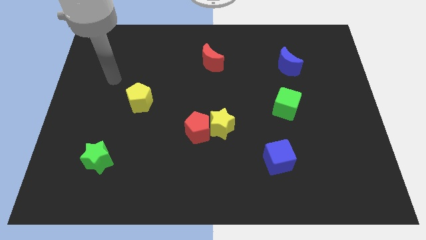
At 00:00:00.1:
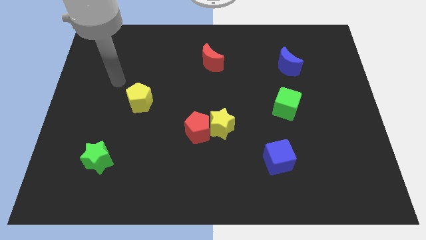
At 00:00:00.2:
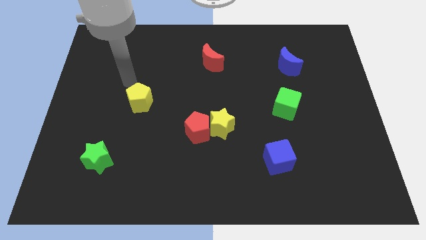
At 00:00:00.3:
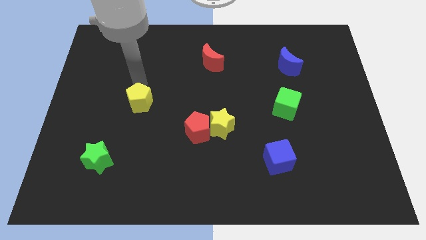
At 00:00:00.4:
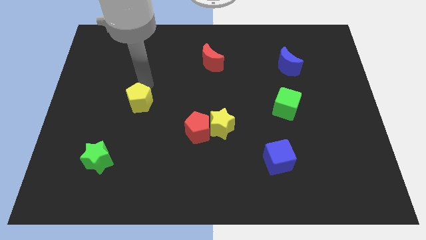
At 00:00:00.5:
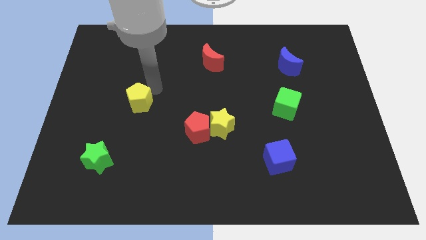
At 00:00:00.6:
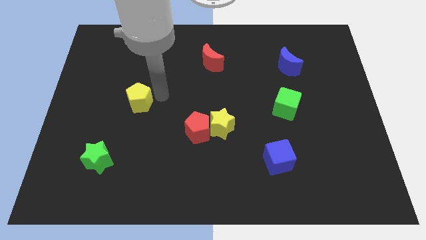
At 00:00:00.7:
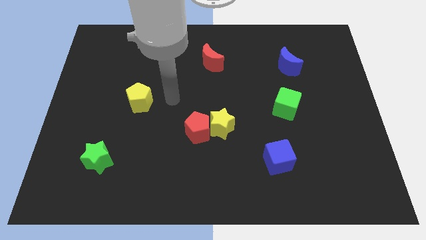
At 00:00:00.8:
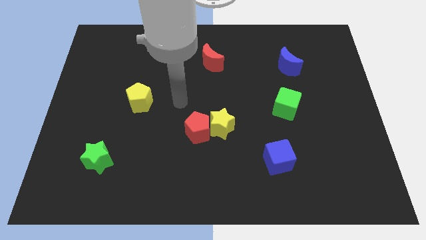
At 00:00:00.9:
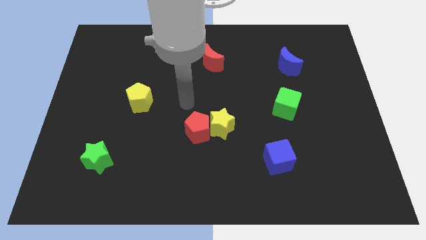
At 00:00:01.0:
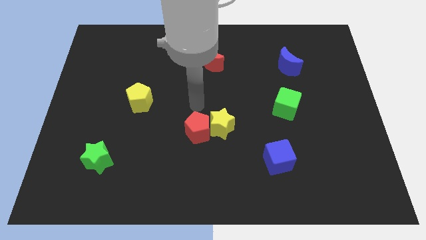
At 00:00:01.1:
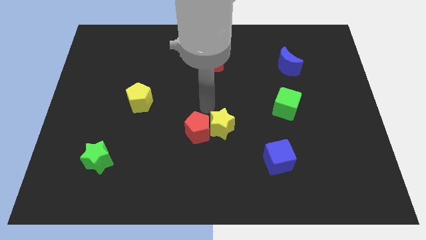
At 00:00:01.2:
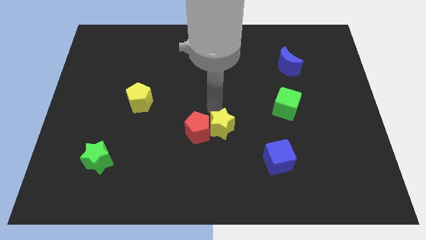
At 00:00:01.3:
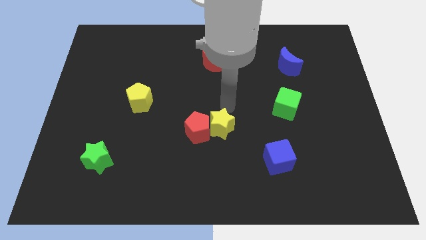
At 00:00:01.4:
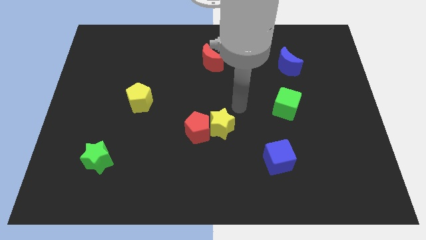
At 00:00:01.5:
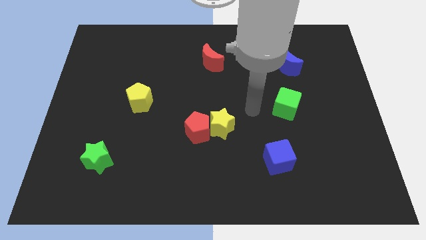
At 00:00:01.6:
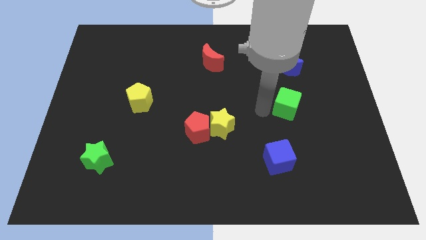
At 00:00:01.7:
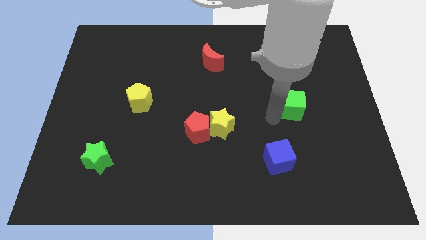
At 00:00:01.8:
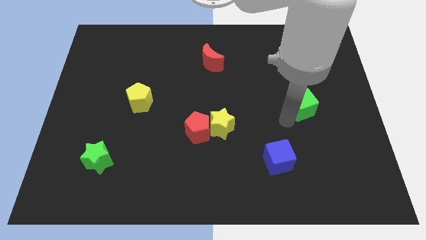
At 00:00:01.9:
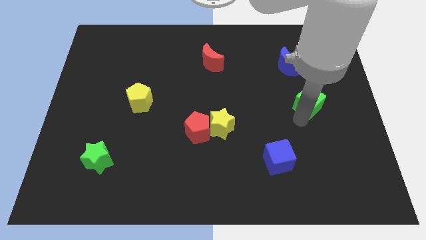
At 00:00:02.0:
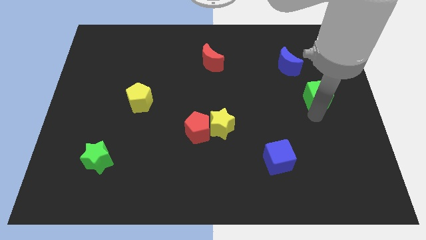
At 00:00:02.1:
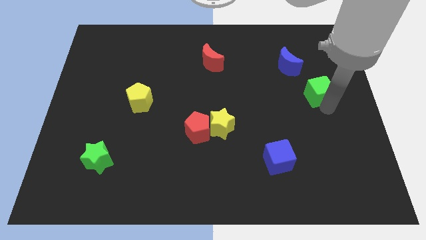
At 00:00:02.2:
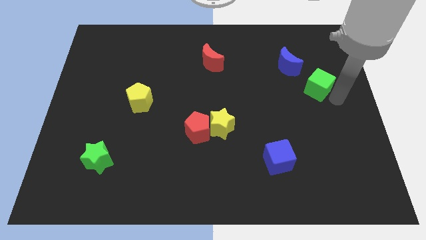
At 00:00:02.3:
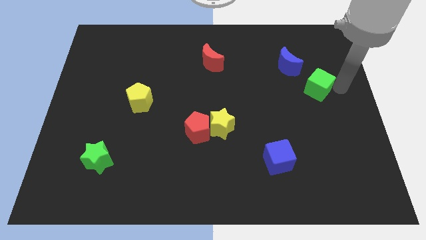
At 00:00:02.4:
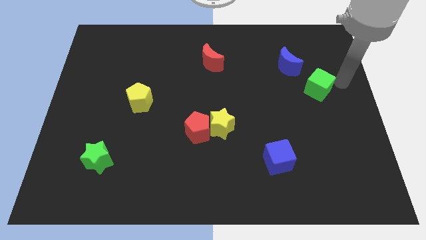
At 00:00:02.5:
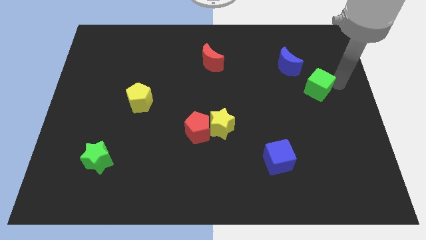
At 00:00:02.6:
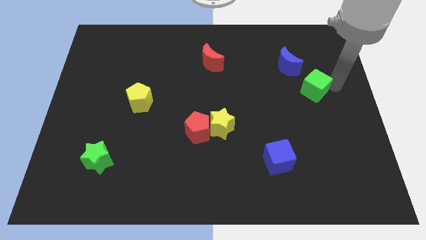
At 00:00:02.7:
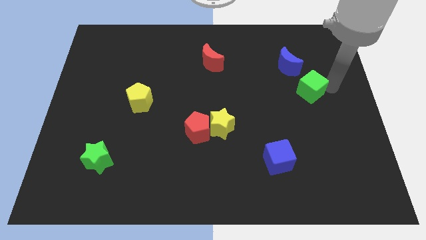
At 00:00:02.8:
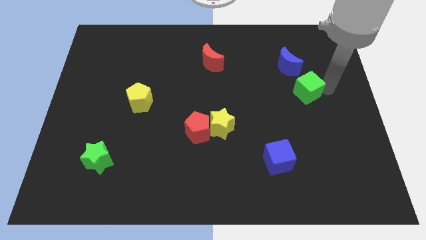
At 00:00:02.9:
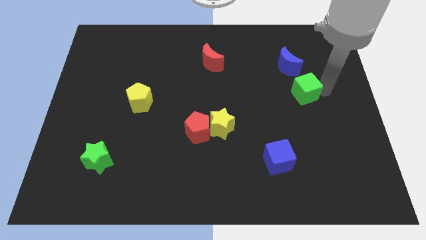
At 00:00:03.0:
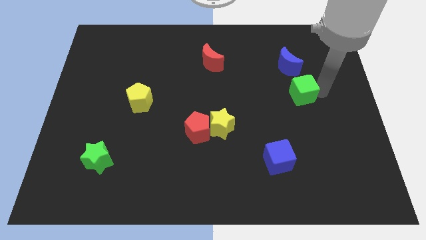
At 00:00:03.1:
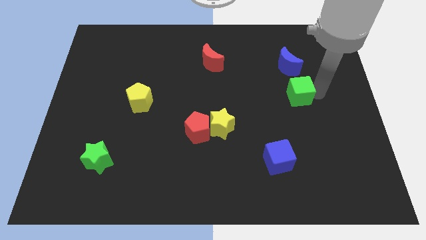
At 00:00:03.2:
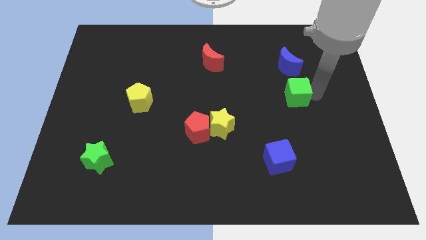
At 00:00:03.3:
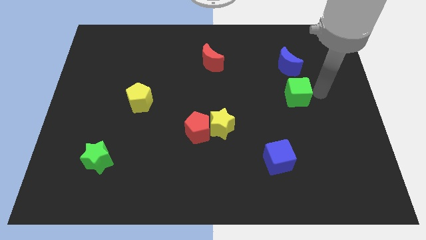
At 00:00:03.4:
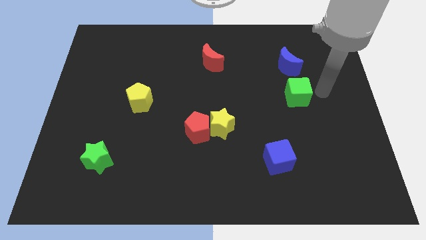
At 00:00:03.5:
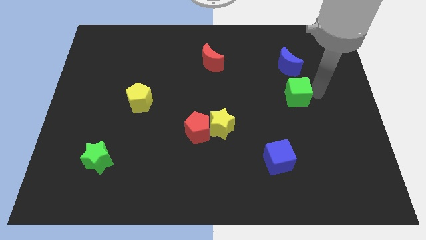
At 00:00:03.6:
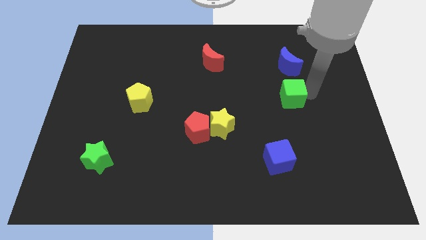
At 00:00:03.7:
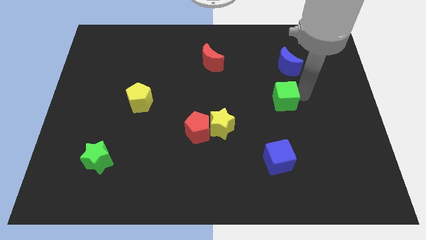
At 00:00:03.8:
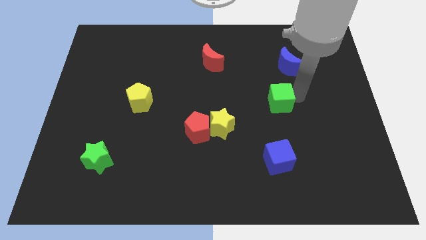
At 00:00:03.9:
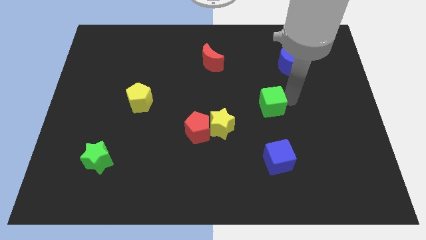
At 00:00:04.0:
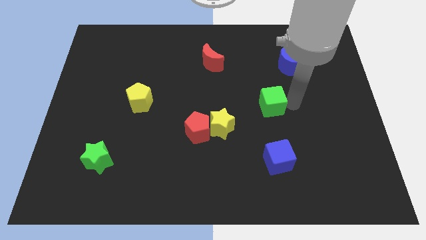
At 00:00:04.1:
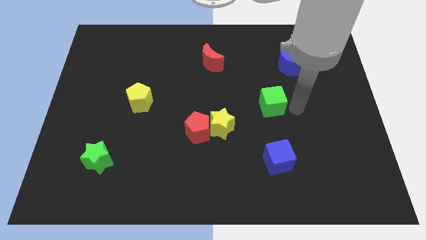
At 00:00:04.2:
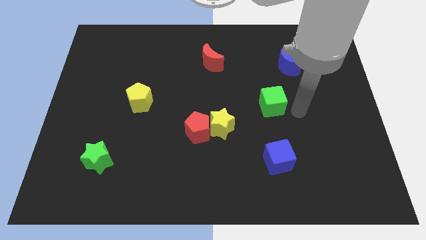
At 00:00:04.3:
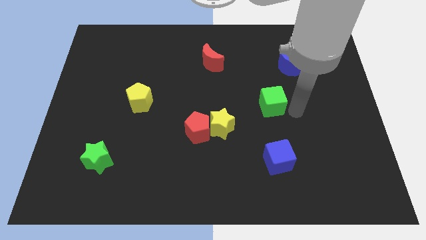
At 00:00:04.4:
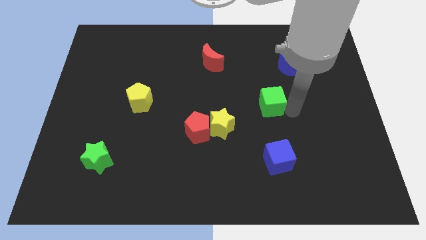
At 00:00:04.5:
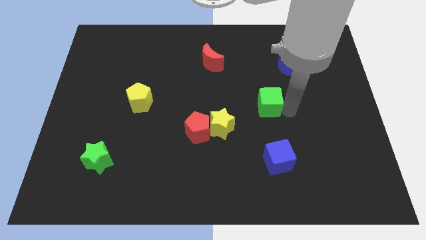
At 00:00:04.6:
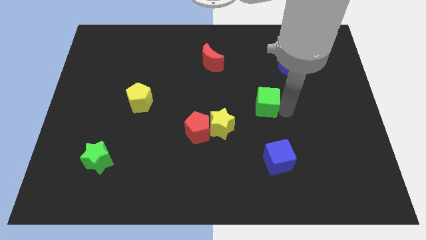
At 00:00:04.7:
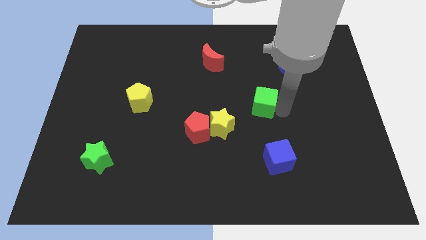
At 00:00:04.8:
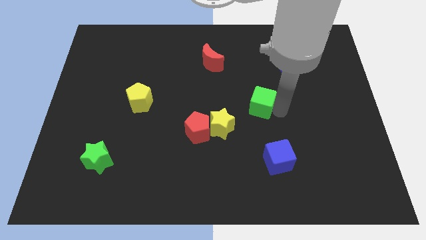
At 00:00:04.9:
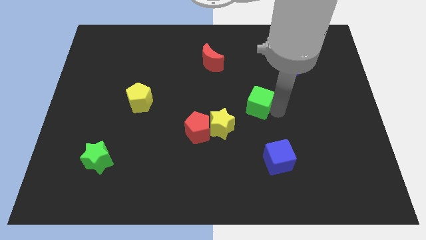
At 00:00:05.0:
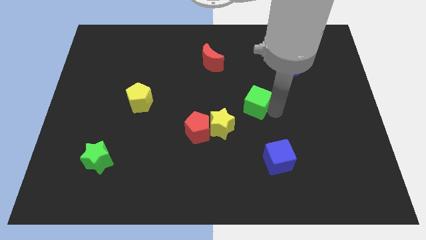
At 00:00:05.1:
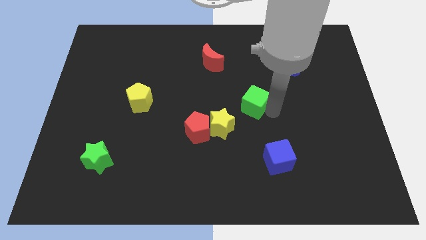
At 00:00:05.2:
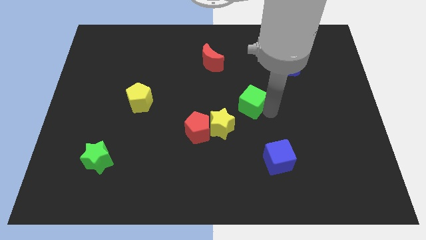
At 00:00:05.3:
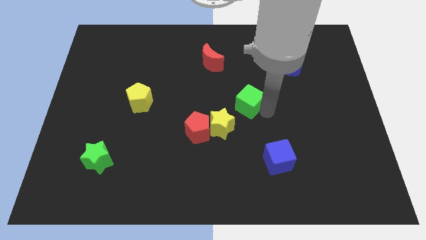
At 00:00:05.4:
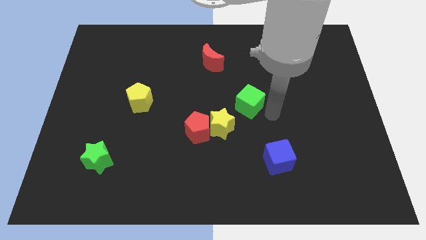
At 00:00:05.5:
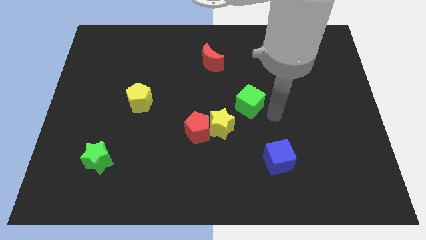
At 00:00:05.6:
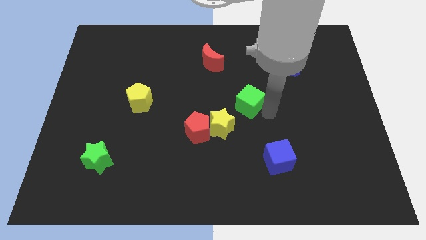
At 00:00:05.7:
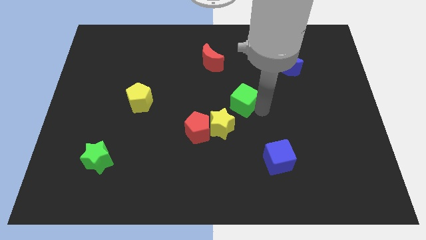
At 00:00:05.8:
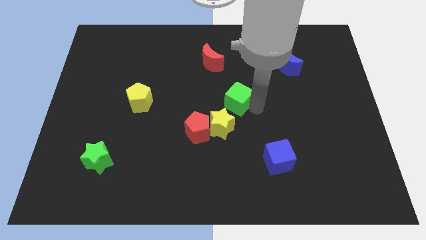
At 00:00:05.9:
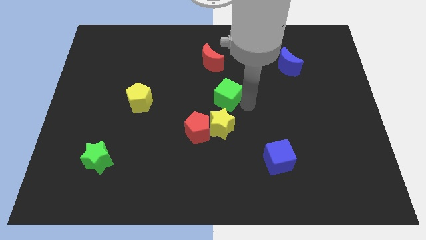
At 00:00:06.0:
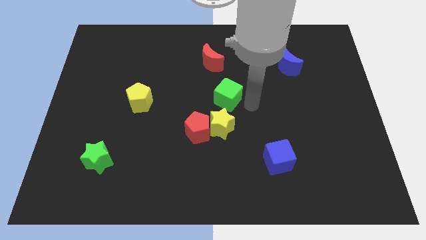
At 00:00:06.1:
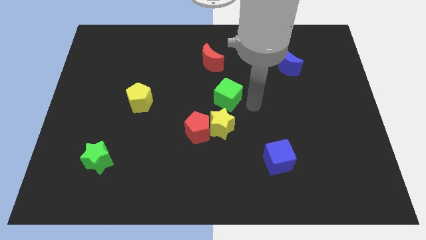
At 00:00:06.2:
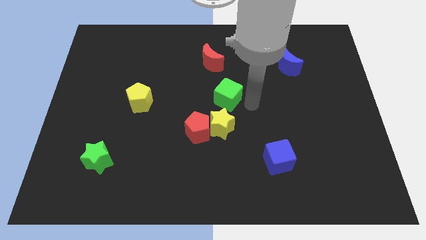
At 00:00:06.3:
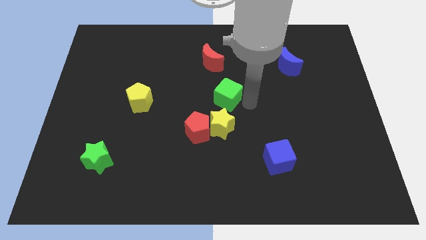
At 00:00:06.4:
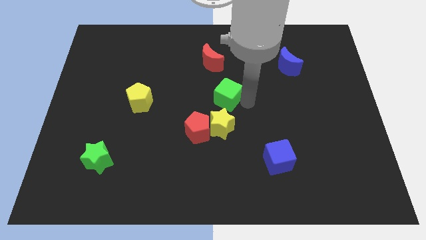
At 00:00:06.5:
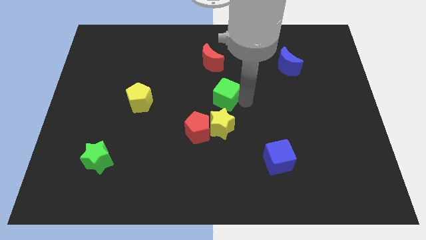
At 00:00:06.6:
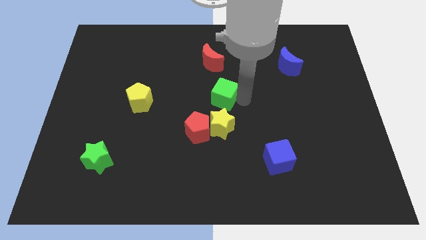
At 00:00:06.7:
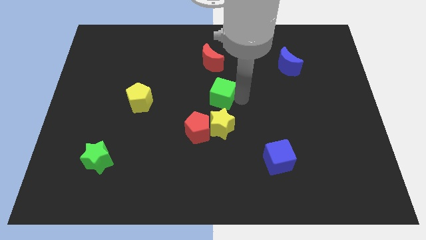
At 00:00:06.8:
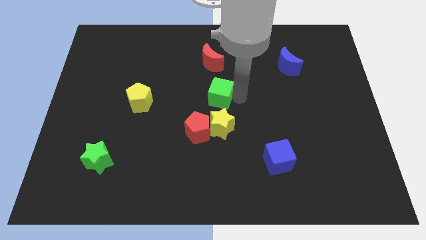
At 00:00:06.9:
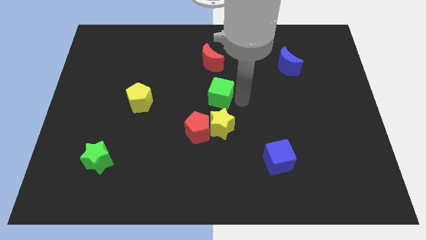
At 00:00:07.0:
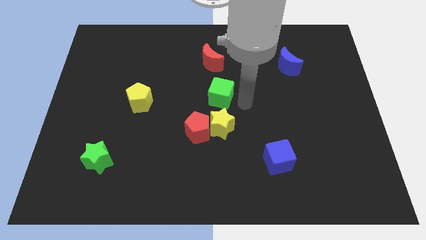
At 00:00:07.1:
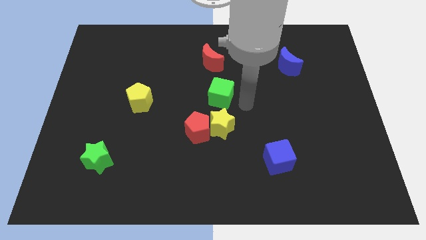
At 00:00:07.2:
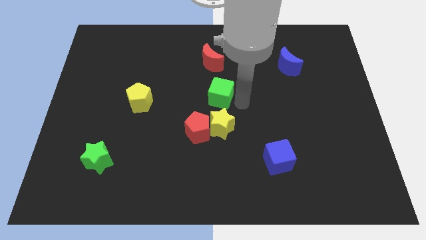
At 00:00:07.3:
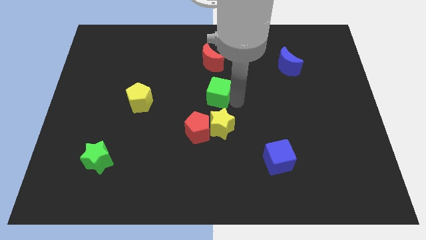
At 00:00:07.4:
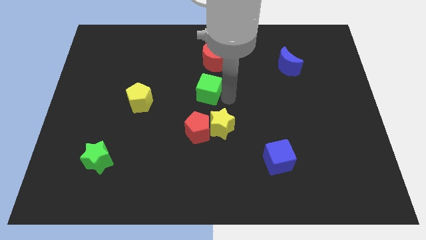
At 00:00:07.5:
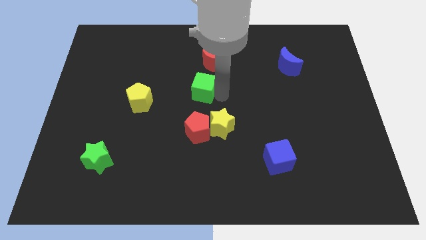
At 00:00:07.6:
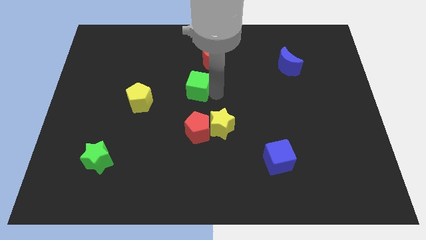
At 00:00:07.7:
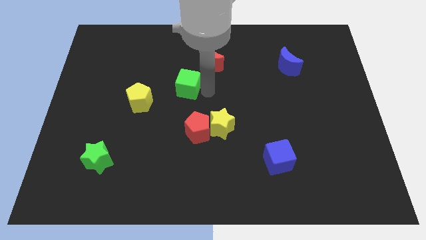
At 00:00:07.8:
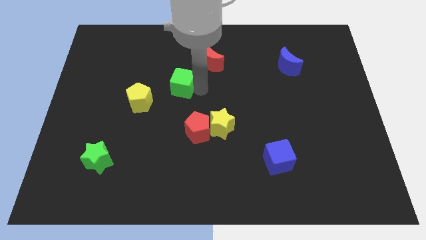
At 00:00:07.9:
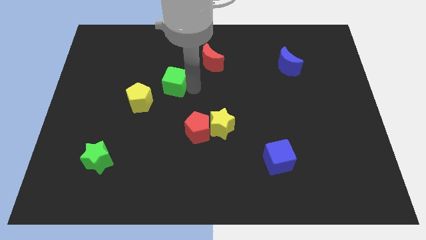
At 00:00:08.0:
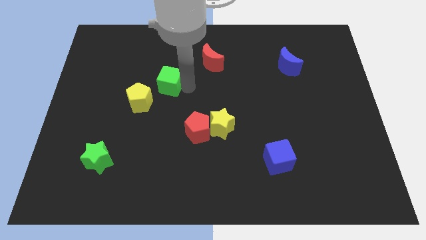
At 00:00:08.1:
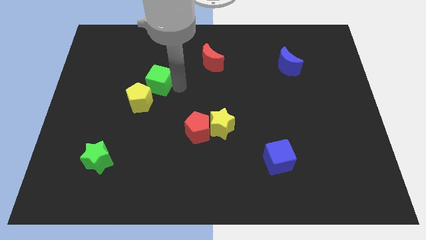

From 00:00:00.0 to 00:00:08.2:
slide the green cube above the yellow pentagon
